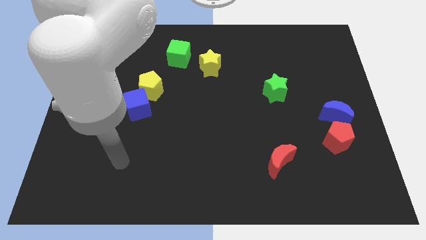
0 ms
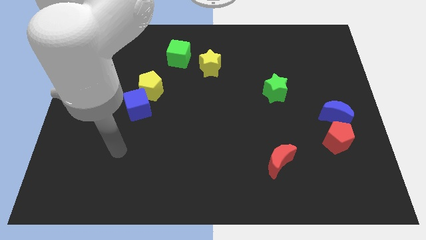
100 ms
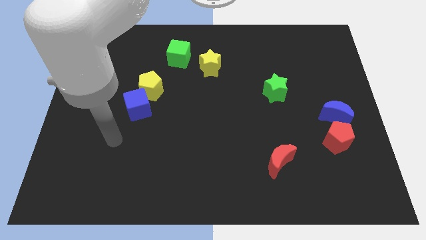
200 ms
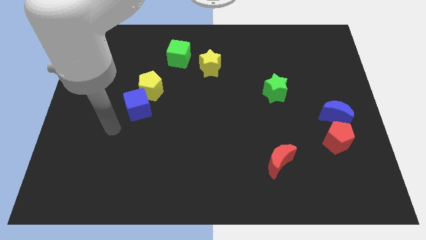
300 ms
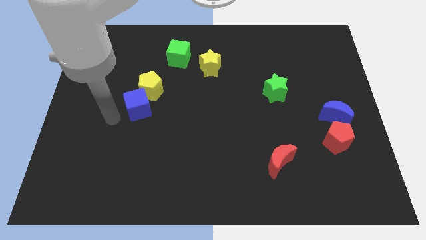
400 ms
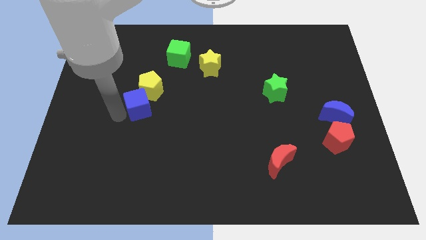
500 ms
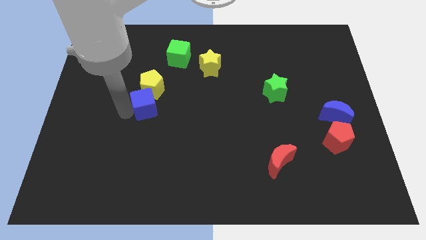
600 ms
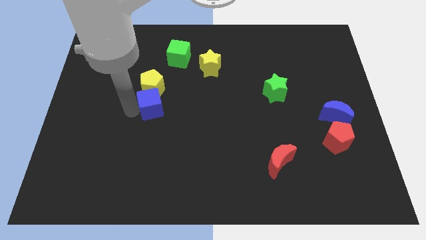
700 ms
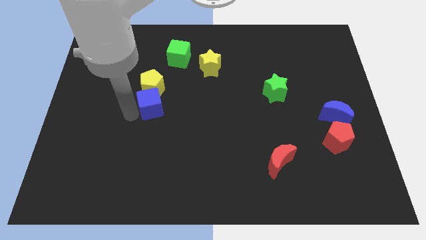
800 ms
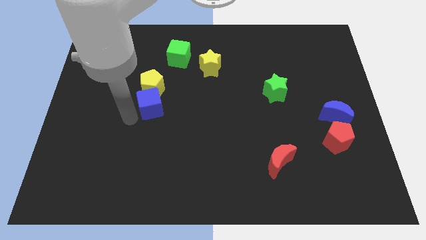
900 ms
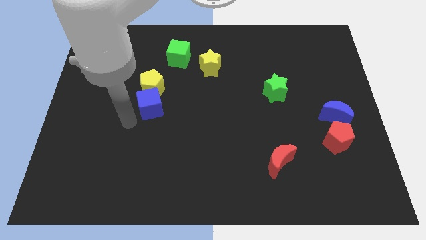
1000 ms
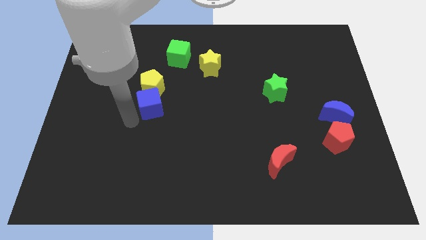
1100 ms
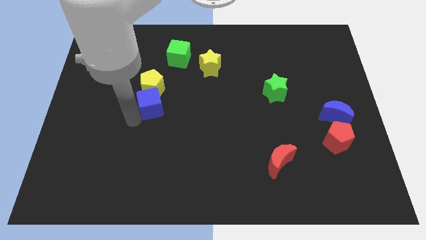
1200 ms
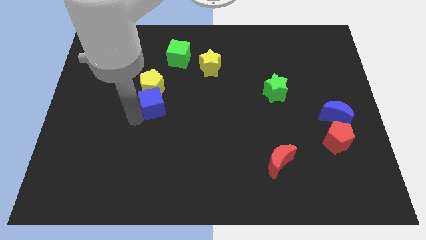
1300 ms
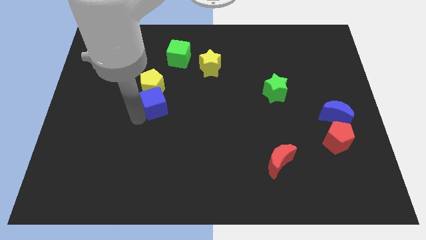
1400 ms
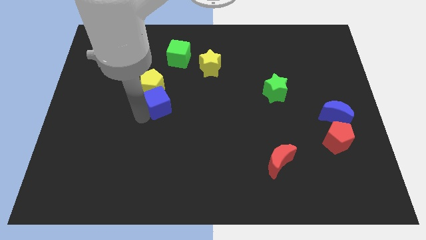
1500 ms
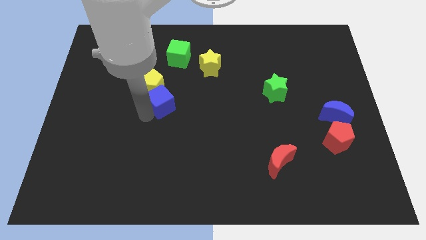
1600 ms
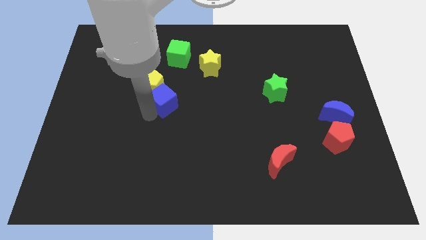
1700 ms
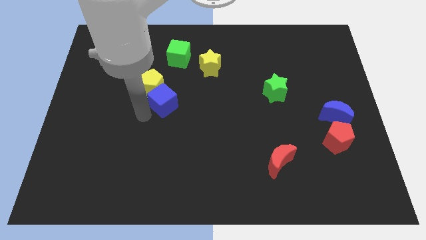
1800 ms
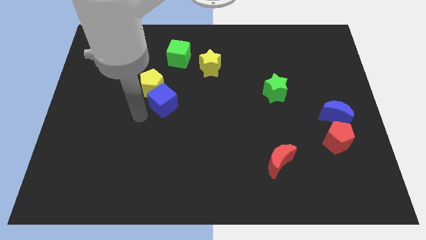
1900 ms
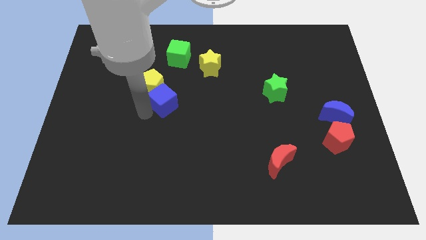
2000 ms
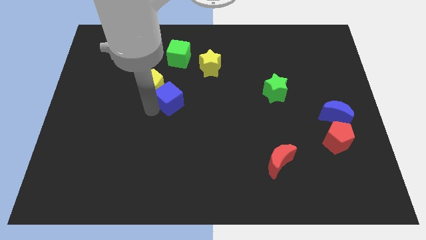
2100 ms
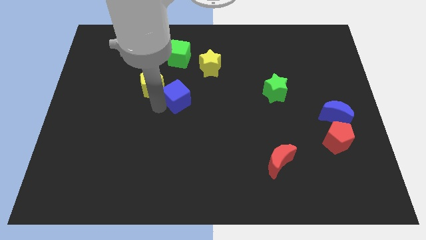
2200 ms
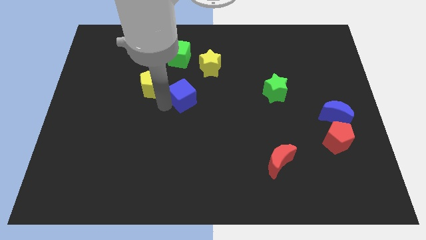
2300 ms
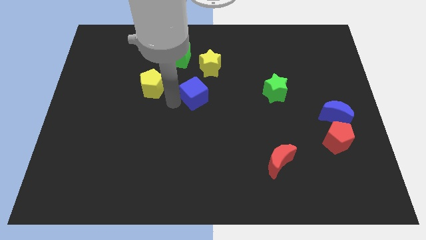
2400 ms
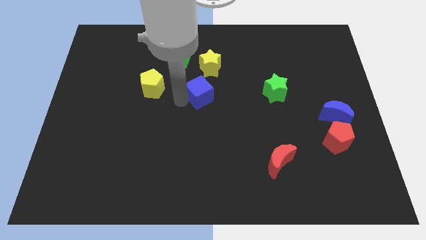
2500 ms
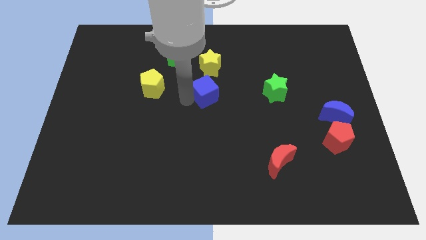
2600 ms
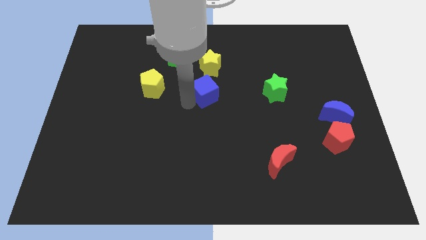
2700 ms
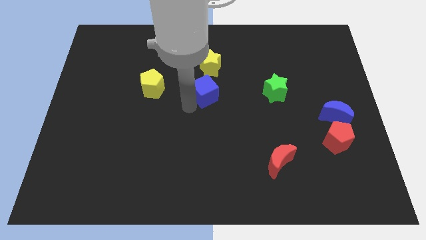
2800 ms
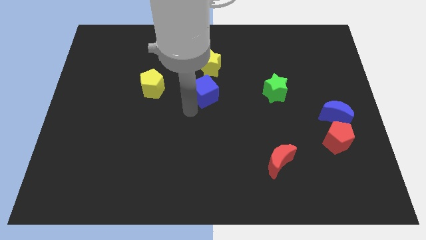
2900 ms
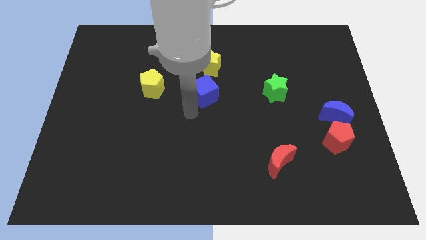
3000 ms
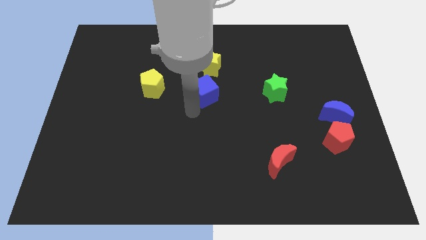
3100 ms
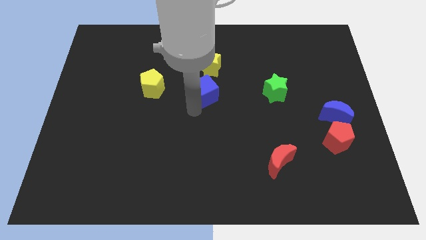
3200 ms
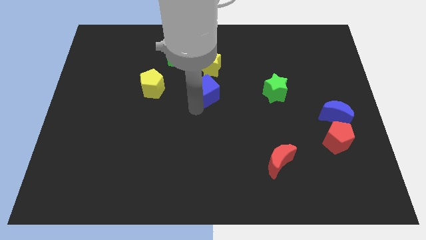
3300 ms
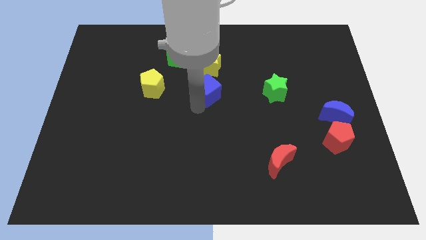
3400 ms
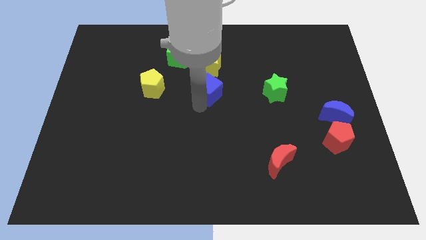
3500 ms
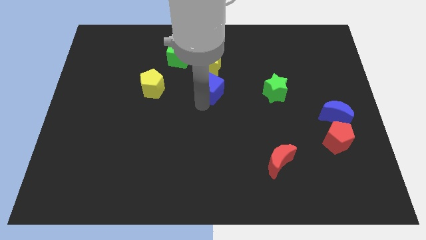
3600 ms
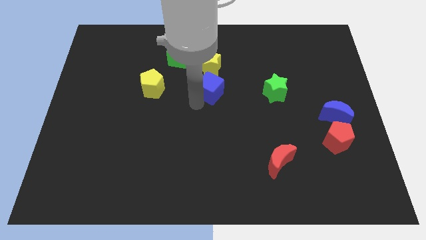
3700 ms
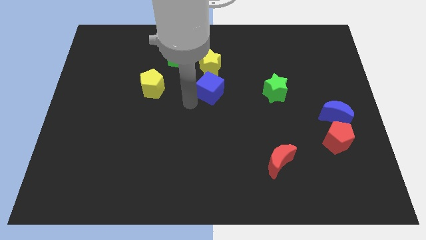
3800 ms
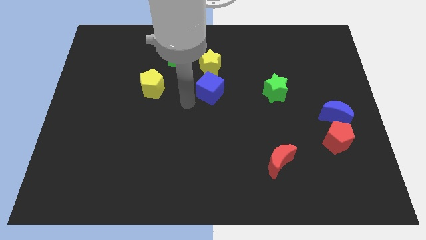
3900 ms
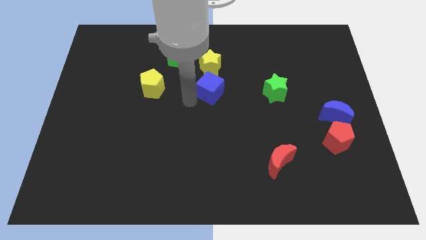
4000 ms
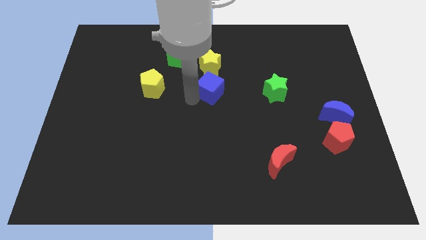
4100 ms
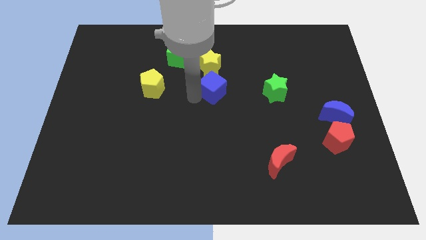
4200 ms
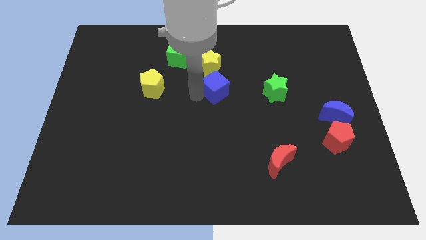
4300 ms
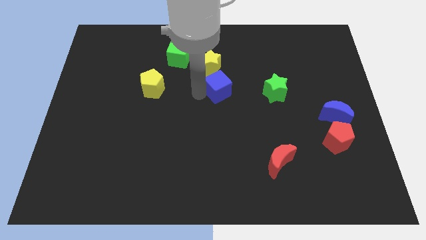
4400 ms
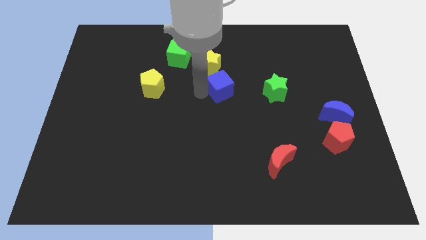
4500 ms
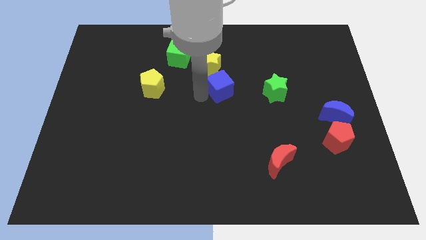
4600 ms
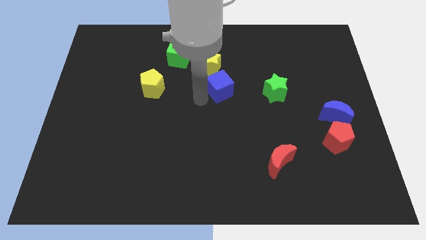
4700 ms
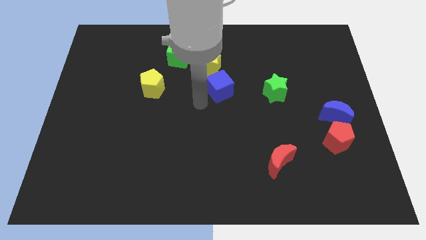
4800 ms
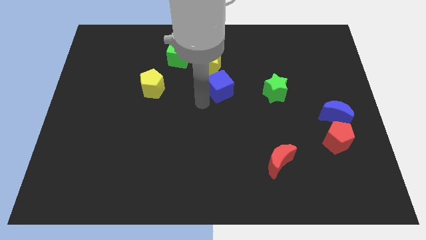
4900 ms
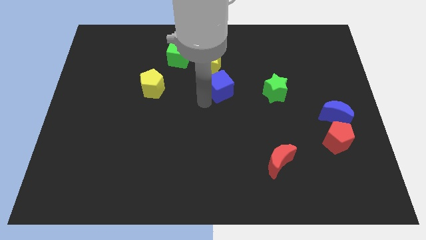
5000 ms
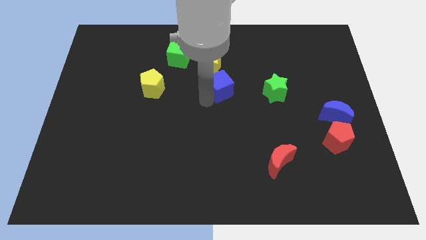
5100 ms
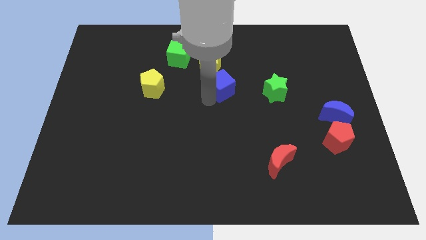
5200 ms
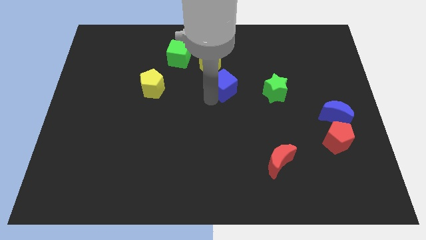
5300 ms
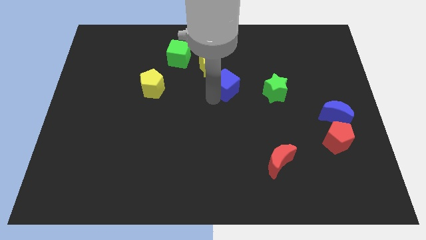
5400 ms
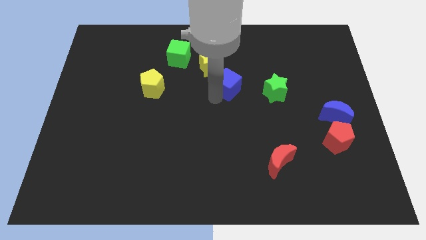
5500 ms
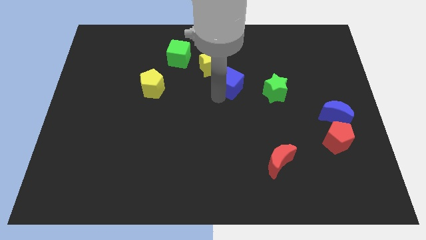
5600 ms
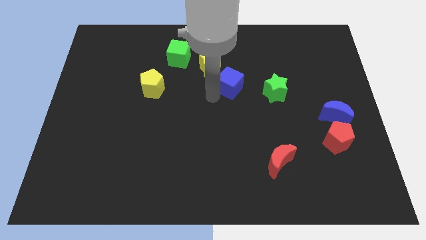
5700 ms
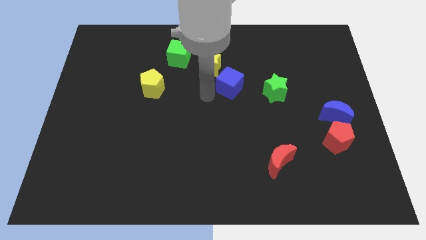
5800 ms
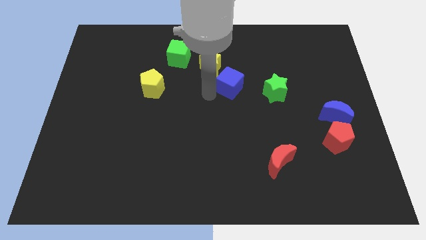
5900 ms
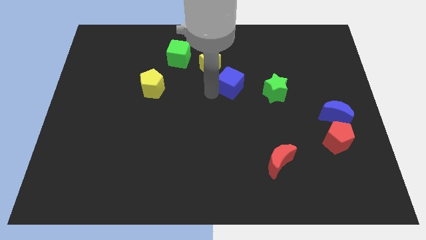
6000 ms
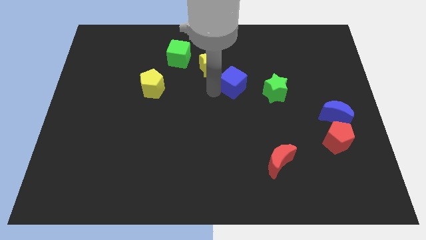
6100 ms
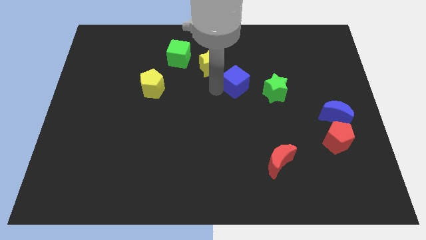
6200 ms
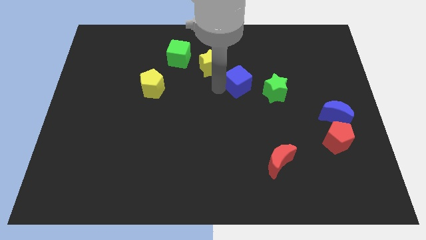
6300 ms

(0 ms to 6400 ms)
move the blue cube diagonally up and to the left of the green star
